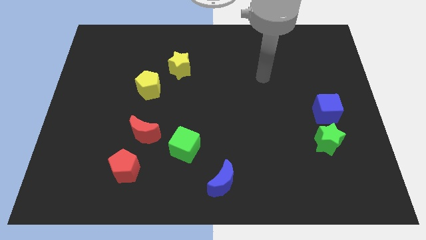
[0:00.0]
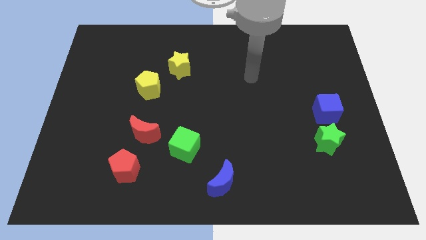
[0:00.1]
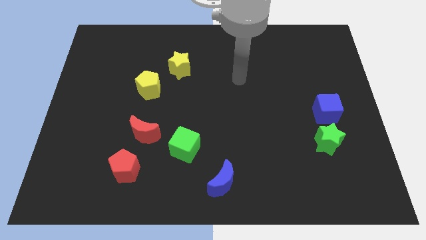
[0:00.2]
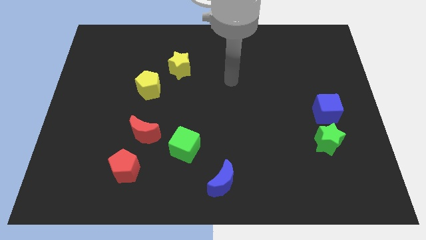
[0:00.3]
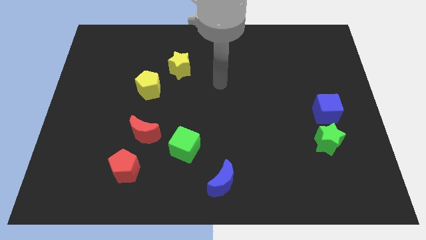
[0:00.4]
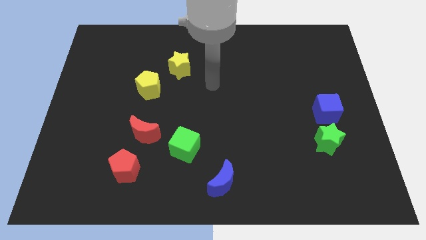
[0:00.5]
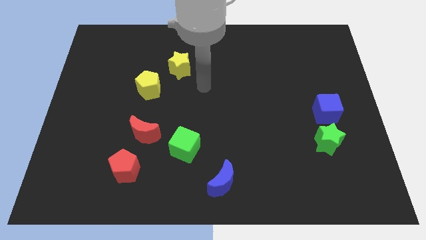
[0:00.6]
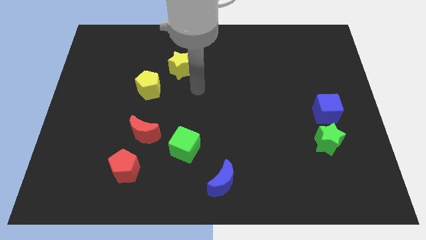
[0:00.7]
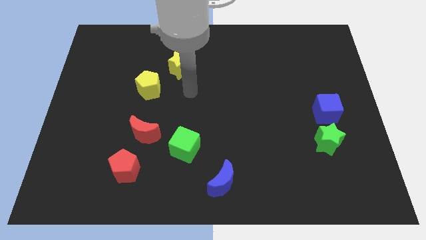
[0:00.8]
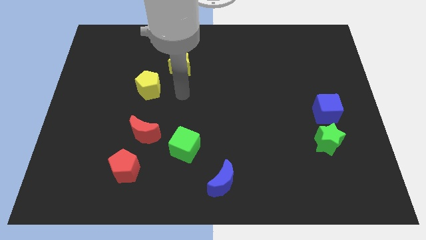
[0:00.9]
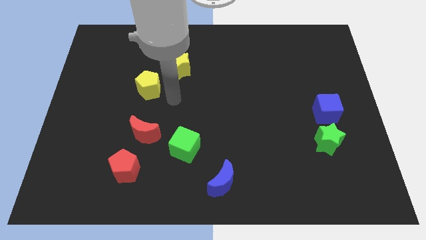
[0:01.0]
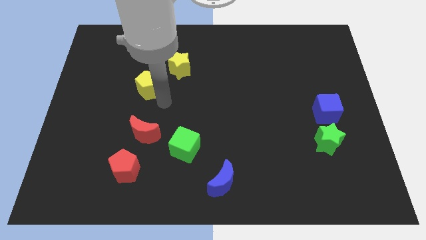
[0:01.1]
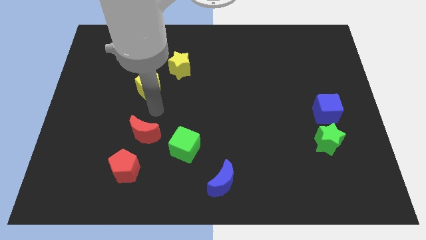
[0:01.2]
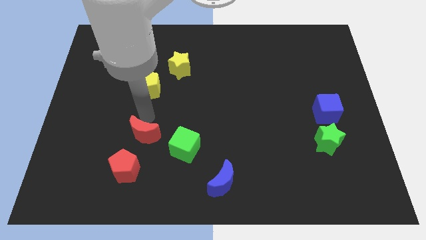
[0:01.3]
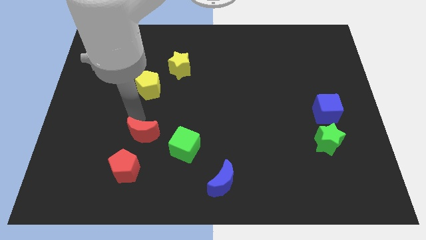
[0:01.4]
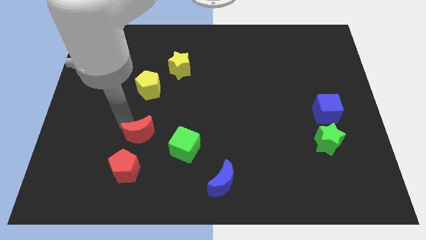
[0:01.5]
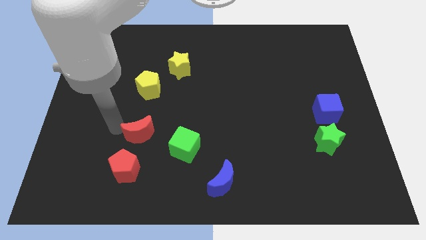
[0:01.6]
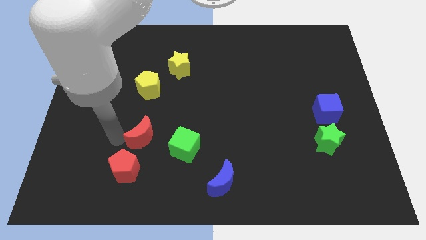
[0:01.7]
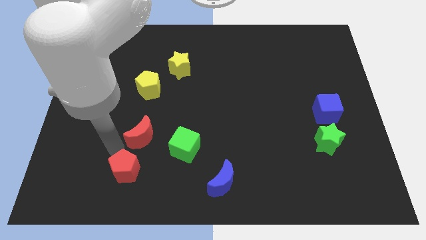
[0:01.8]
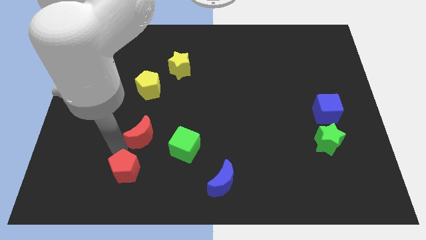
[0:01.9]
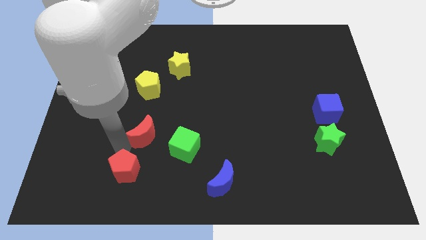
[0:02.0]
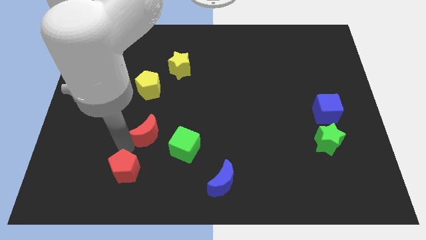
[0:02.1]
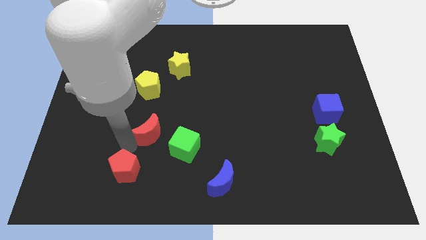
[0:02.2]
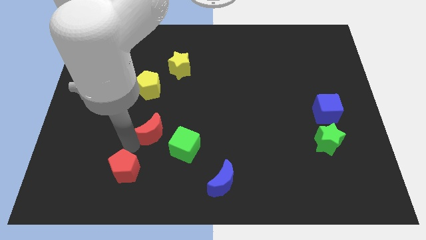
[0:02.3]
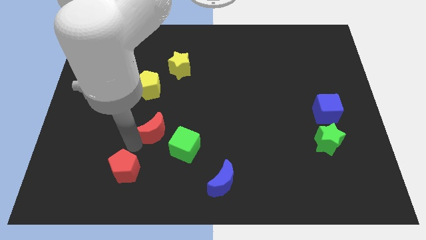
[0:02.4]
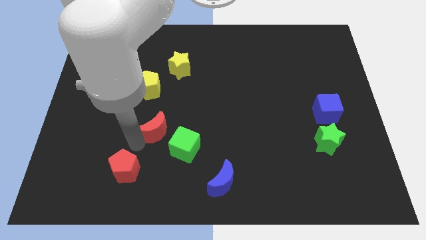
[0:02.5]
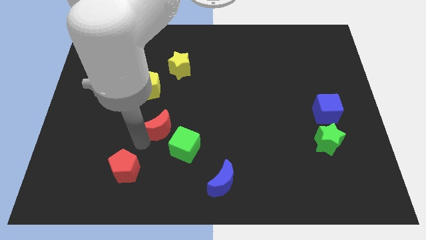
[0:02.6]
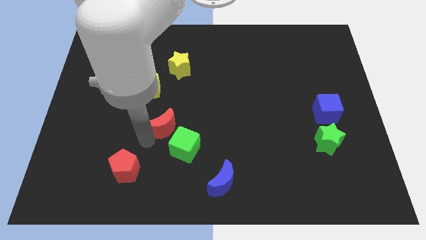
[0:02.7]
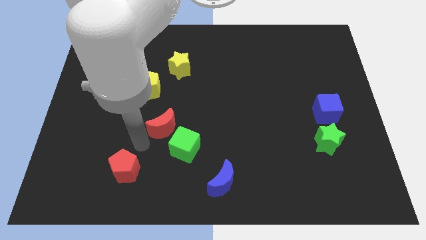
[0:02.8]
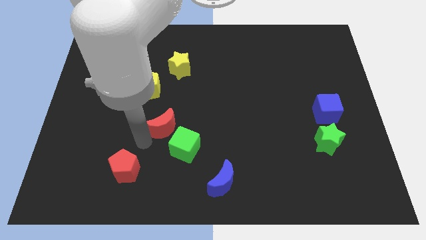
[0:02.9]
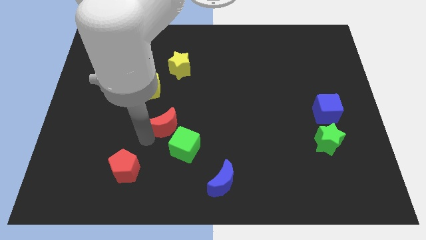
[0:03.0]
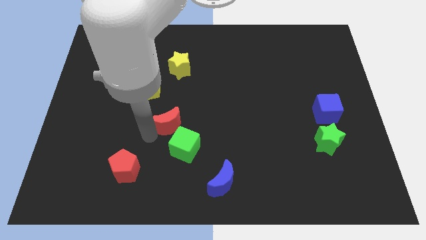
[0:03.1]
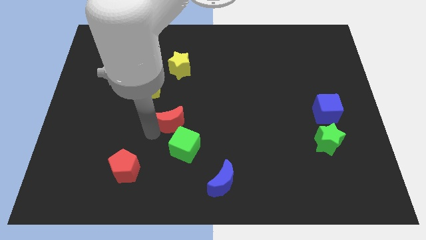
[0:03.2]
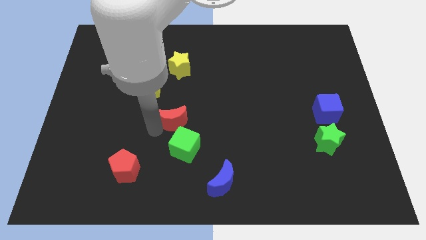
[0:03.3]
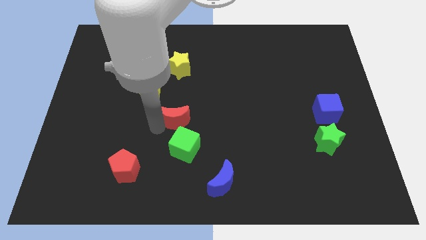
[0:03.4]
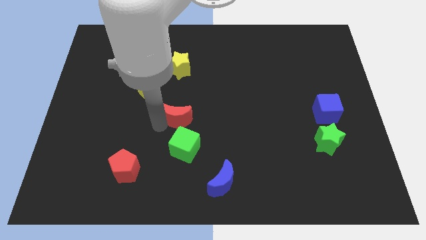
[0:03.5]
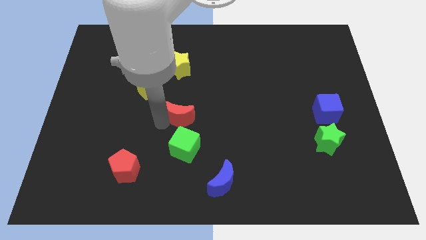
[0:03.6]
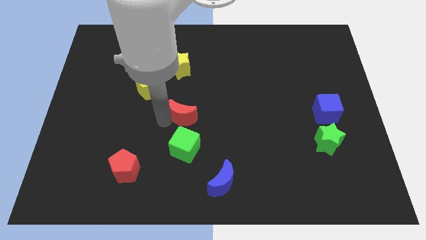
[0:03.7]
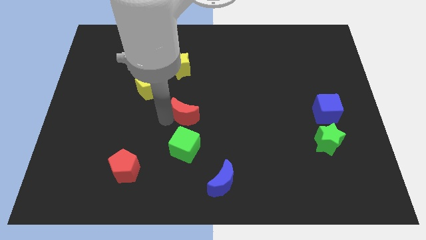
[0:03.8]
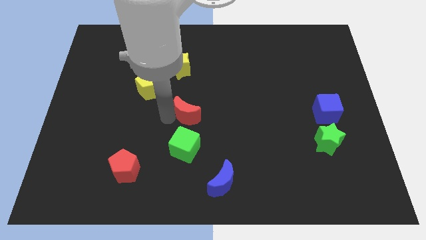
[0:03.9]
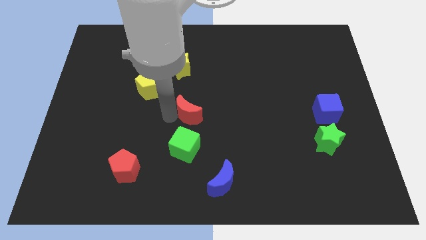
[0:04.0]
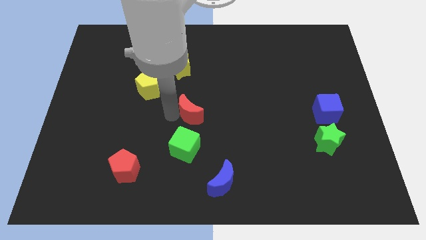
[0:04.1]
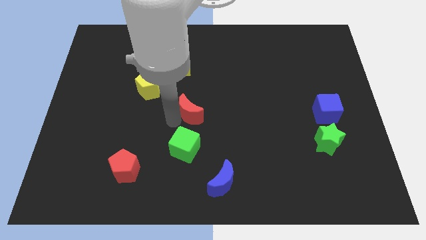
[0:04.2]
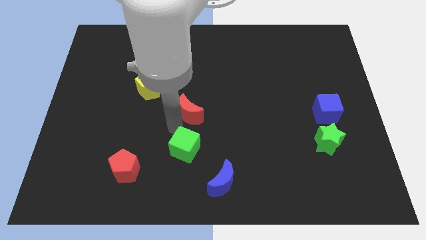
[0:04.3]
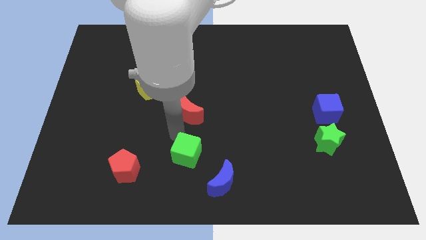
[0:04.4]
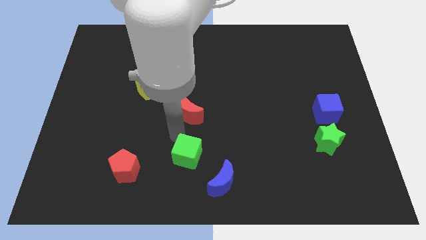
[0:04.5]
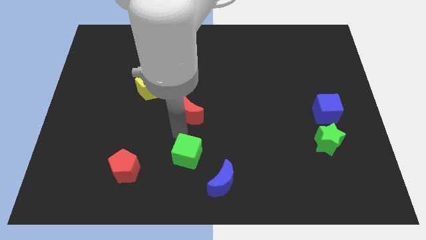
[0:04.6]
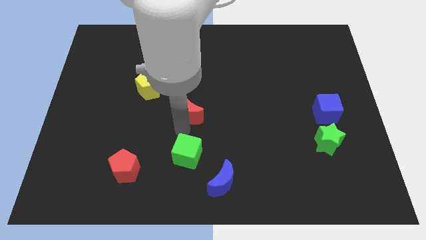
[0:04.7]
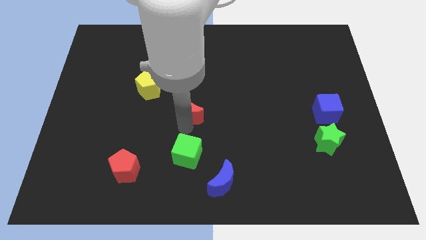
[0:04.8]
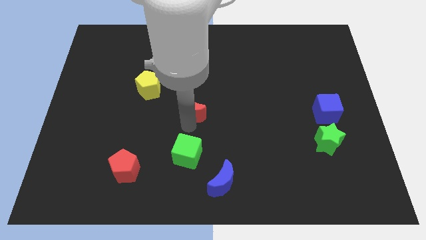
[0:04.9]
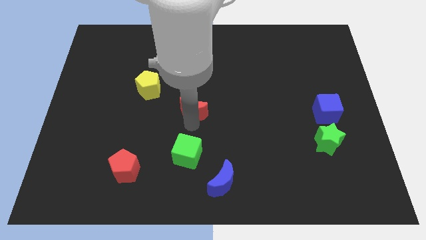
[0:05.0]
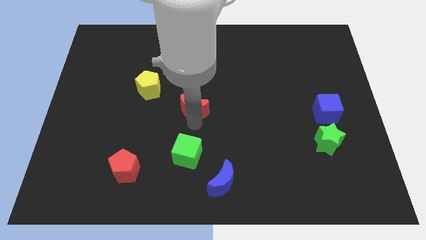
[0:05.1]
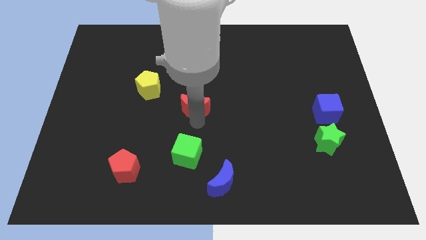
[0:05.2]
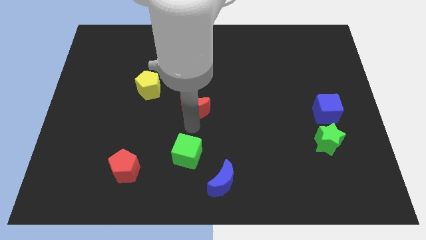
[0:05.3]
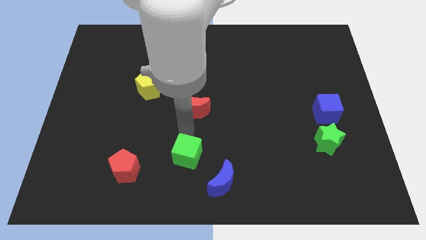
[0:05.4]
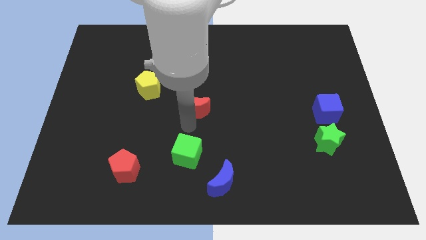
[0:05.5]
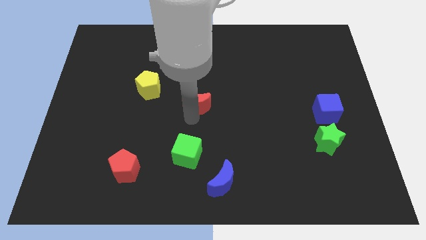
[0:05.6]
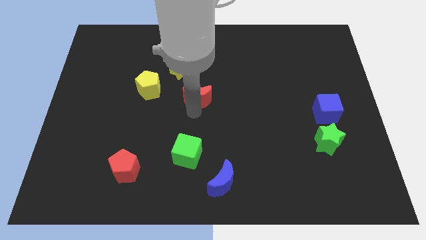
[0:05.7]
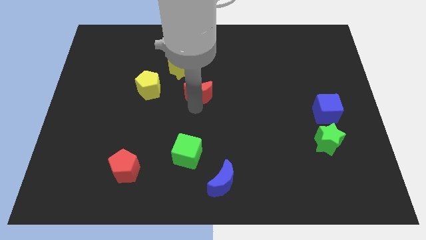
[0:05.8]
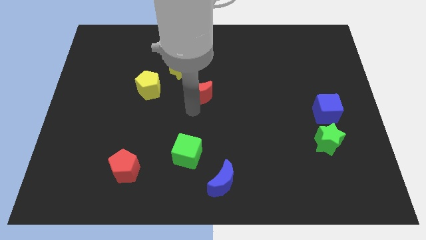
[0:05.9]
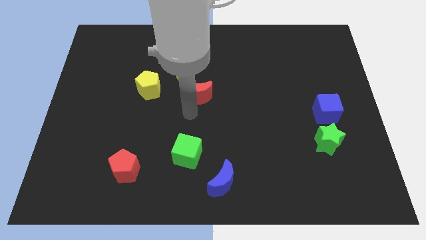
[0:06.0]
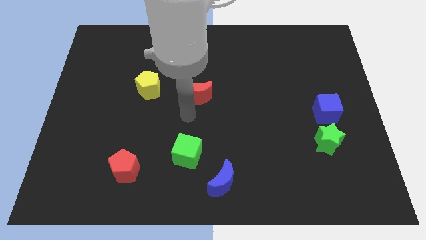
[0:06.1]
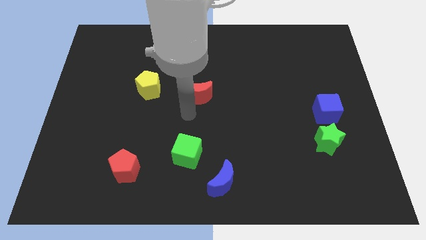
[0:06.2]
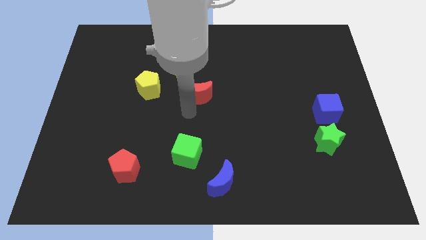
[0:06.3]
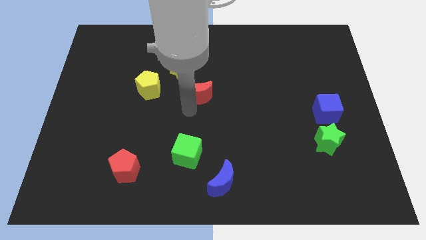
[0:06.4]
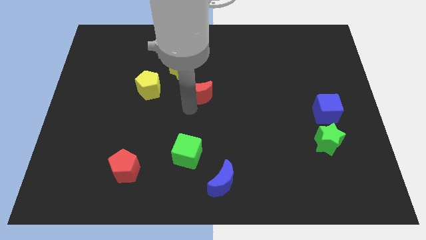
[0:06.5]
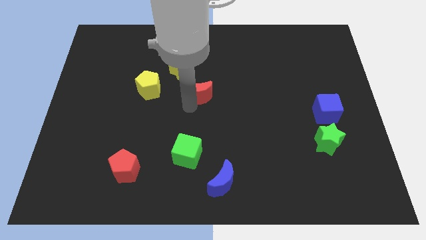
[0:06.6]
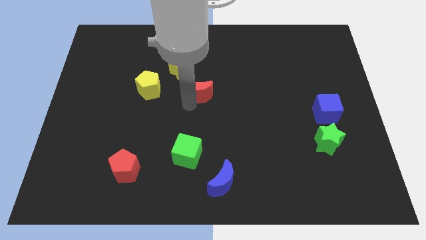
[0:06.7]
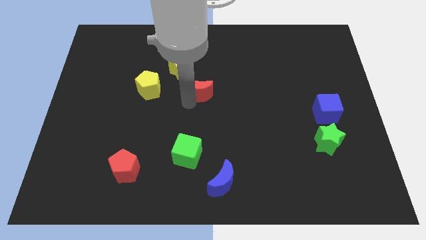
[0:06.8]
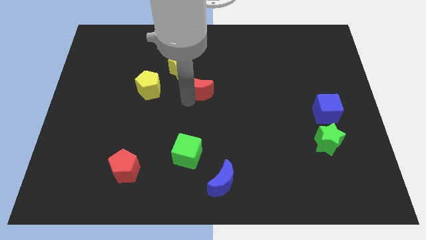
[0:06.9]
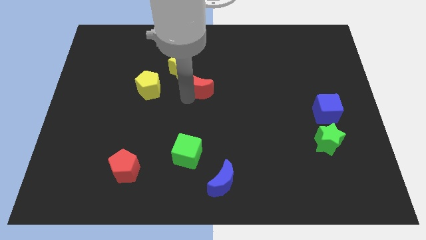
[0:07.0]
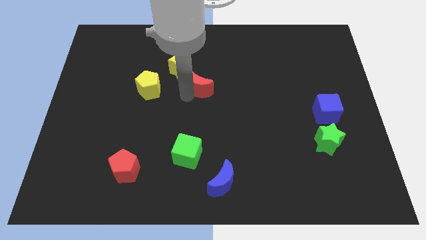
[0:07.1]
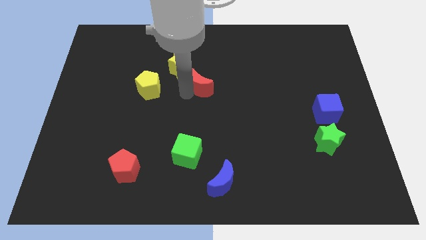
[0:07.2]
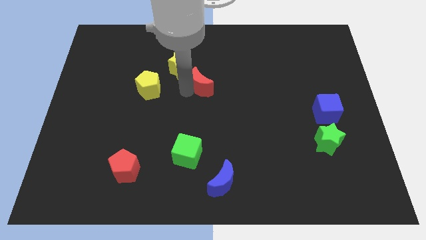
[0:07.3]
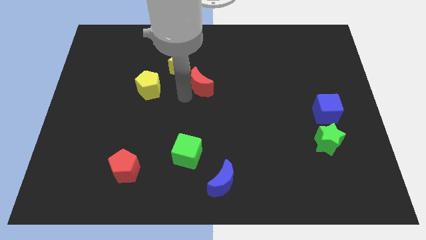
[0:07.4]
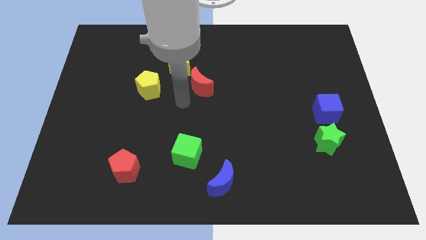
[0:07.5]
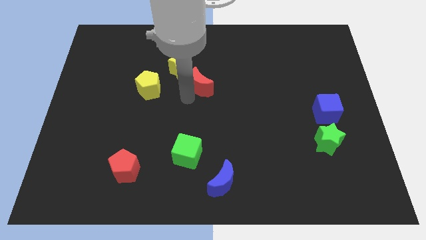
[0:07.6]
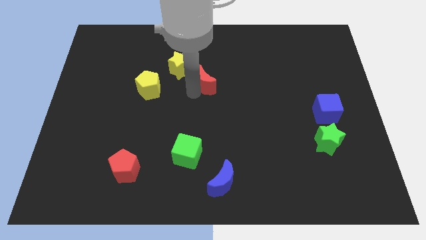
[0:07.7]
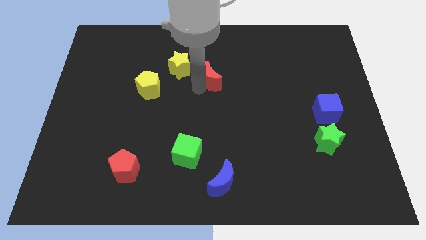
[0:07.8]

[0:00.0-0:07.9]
put the red moon just right of the yellow star
